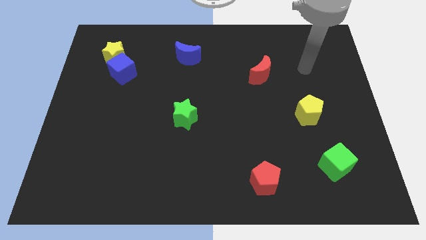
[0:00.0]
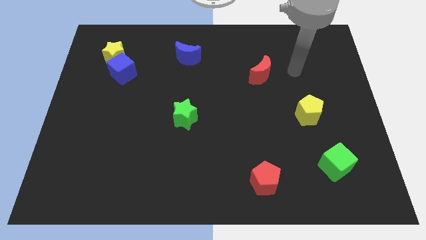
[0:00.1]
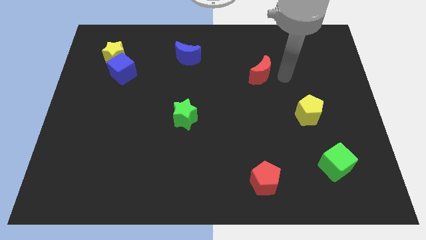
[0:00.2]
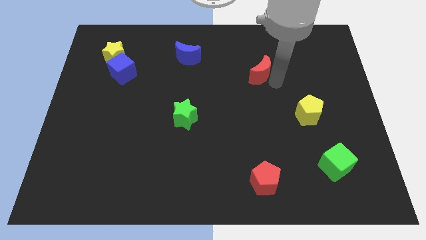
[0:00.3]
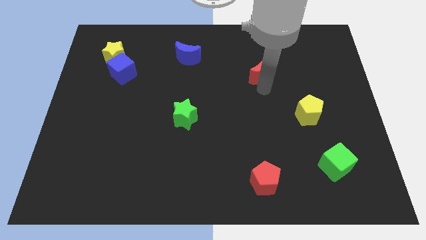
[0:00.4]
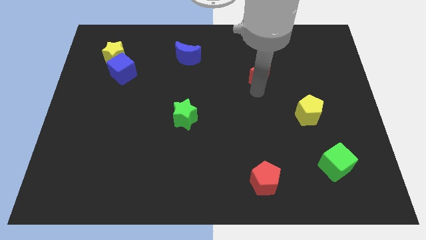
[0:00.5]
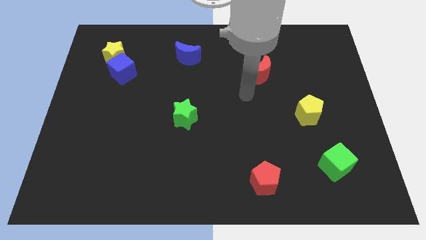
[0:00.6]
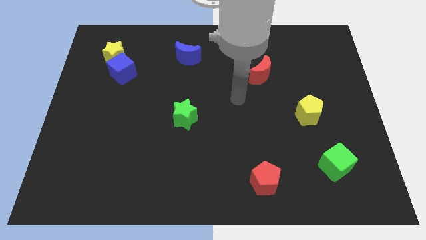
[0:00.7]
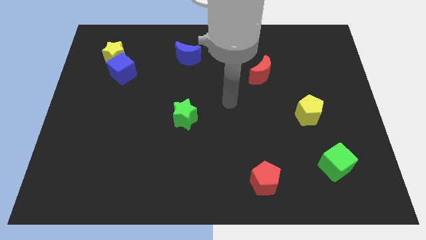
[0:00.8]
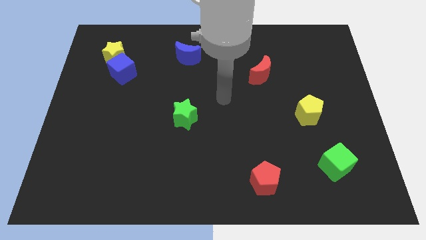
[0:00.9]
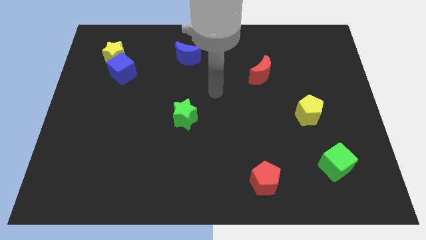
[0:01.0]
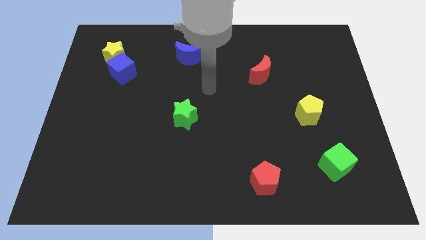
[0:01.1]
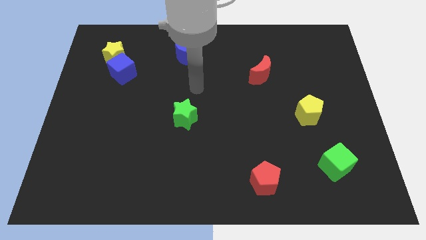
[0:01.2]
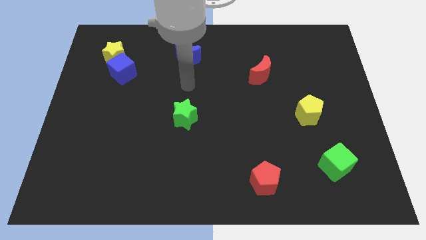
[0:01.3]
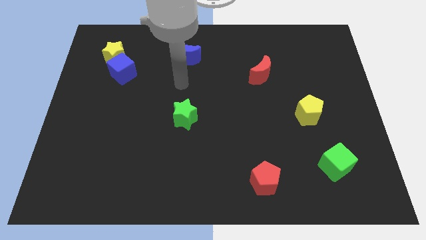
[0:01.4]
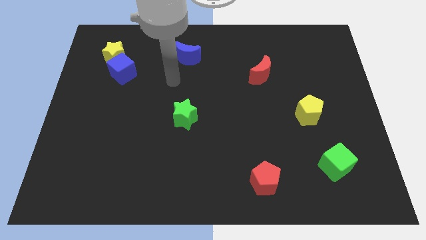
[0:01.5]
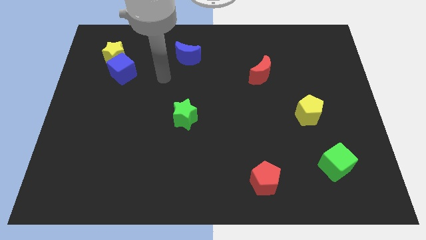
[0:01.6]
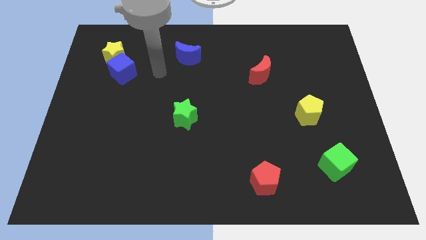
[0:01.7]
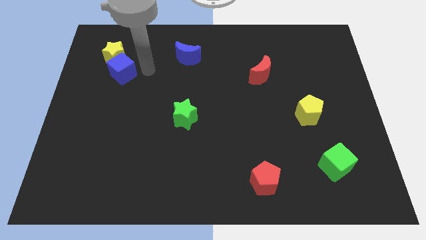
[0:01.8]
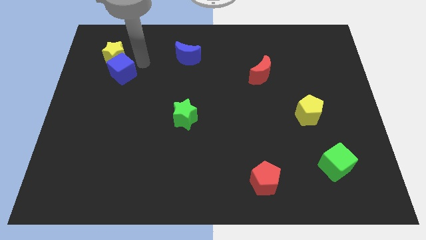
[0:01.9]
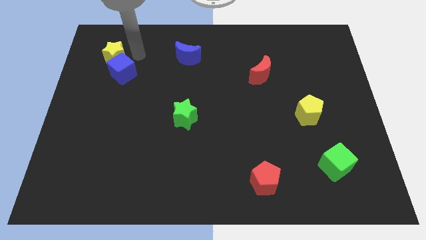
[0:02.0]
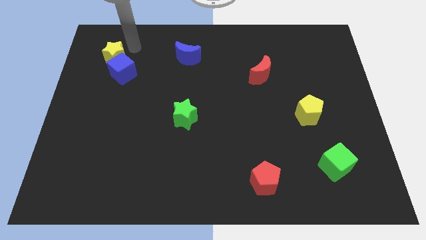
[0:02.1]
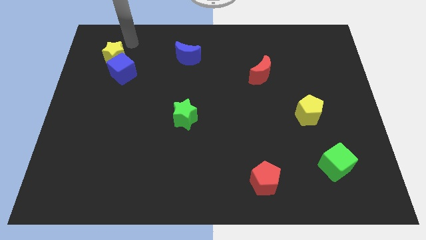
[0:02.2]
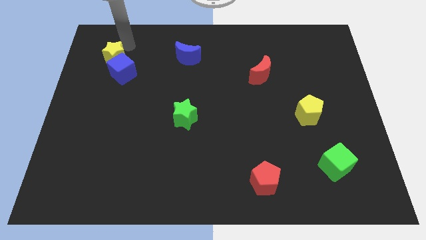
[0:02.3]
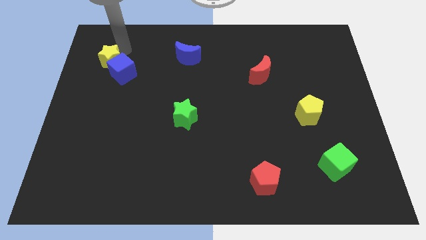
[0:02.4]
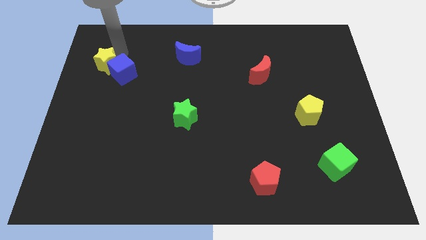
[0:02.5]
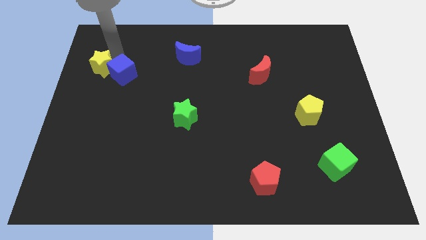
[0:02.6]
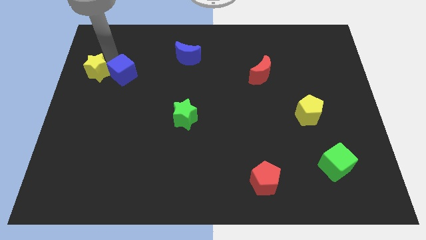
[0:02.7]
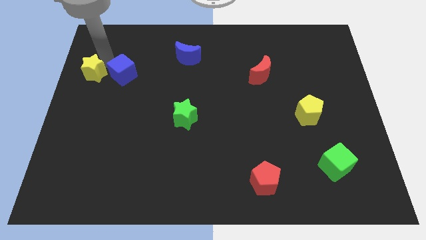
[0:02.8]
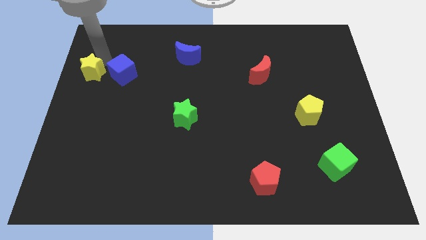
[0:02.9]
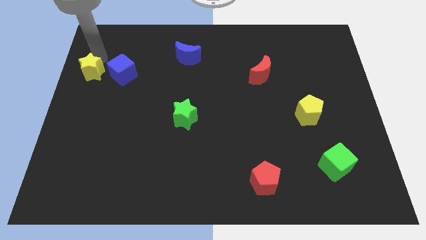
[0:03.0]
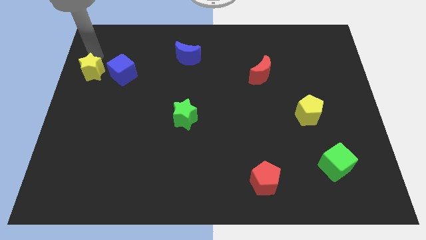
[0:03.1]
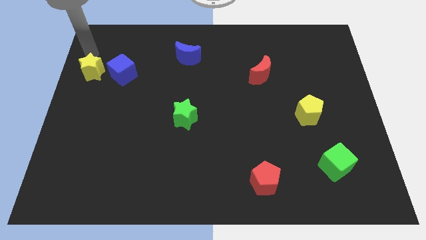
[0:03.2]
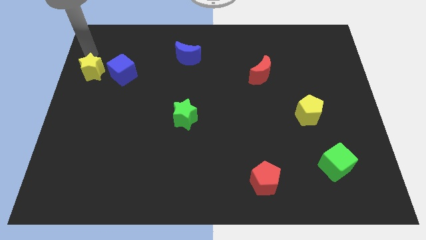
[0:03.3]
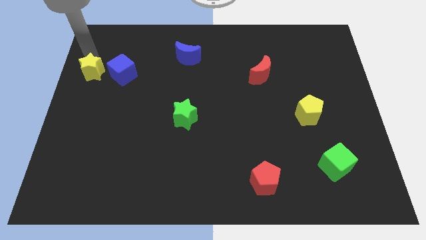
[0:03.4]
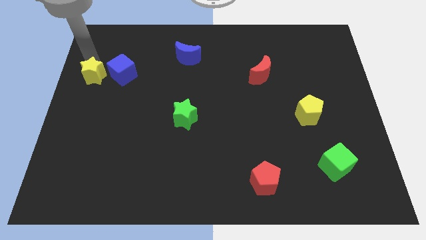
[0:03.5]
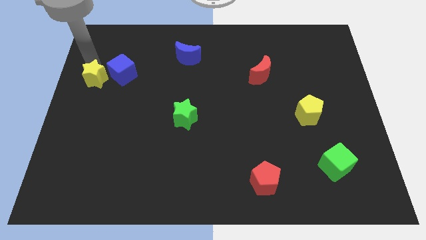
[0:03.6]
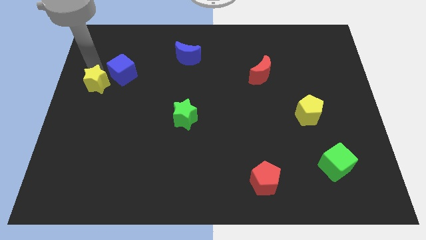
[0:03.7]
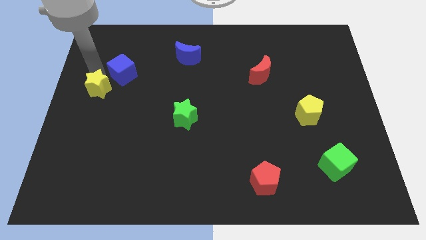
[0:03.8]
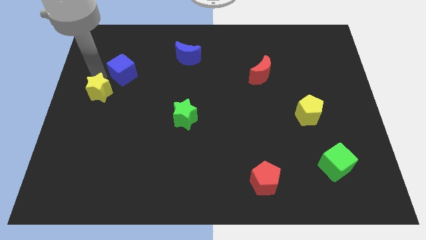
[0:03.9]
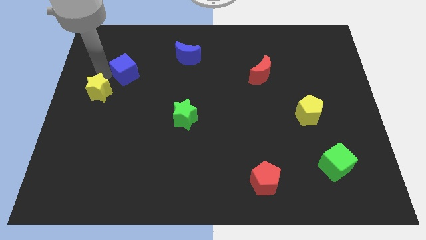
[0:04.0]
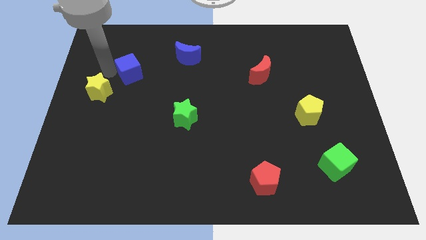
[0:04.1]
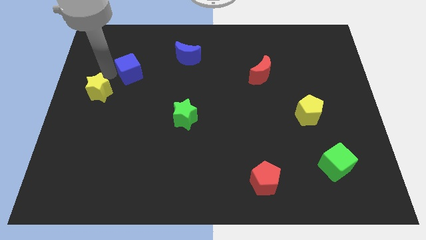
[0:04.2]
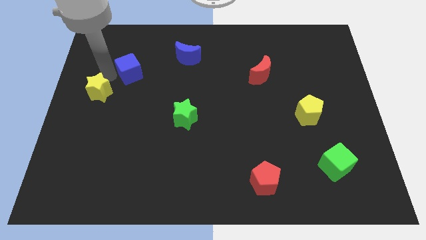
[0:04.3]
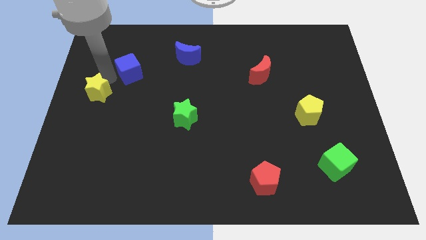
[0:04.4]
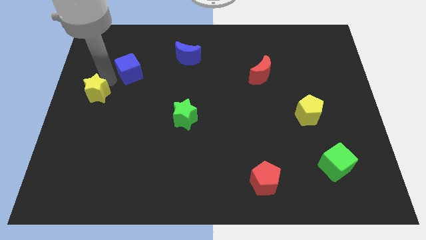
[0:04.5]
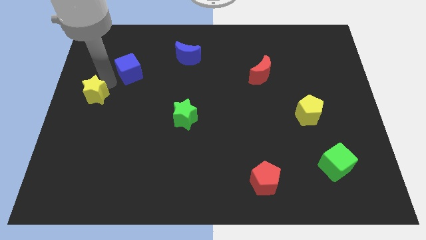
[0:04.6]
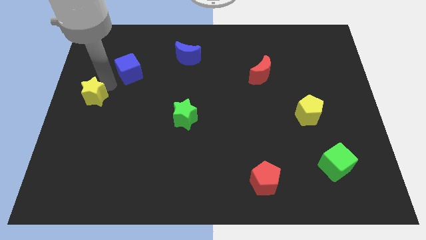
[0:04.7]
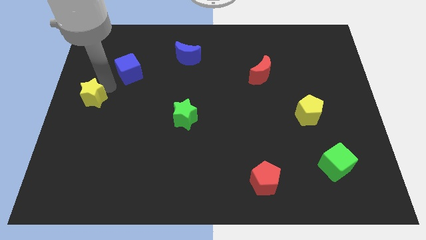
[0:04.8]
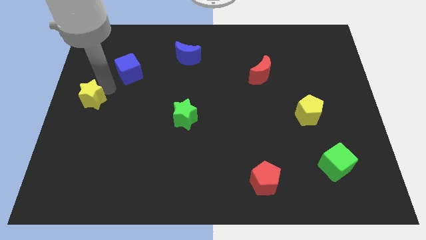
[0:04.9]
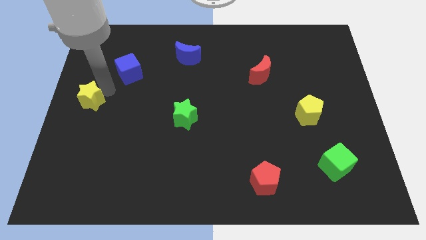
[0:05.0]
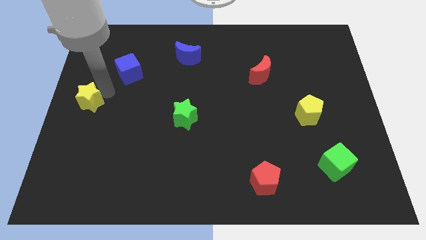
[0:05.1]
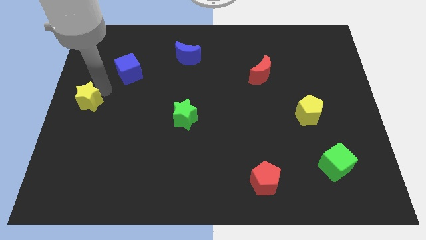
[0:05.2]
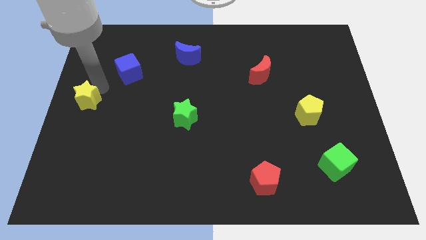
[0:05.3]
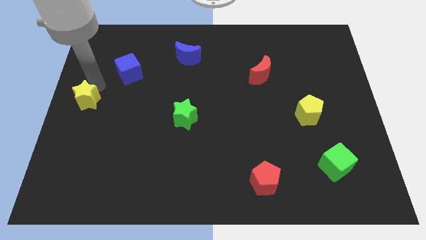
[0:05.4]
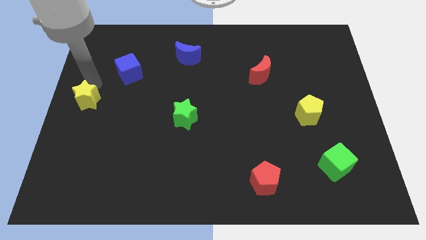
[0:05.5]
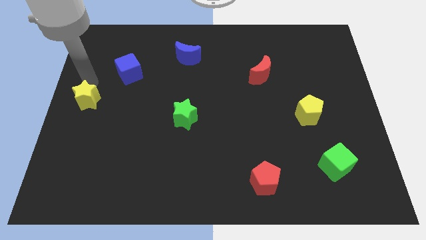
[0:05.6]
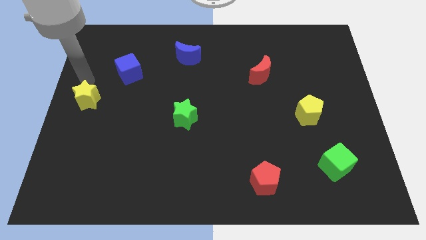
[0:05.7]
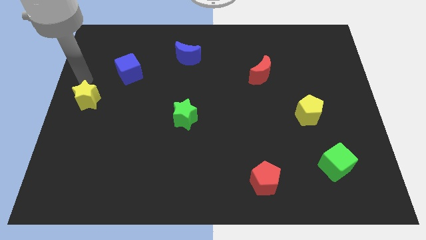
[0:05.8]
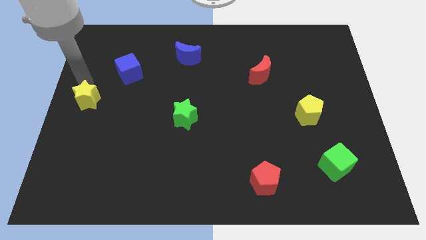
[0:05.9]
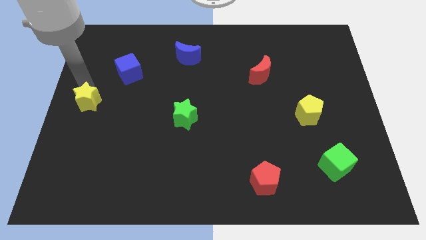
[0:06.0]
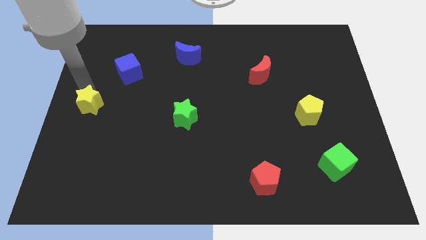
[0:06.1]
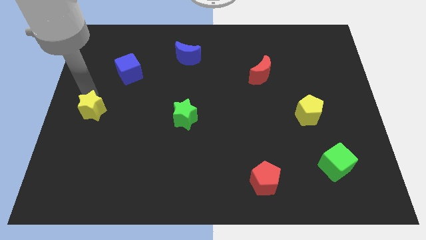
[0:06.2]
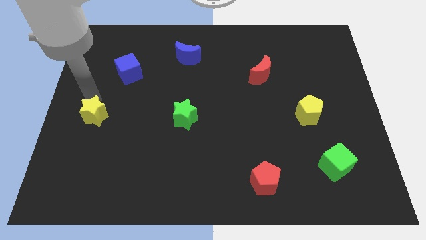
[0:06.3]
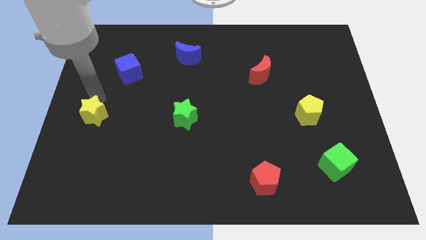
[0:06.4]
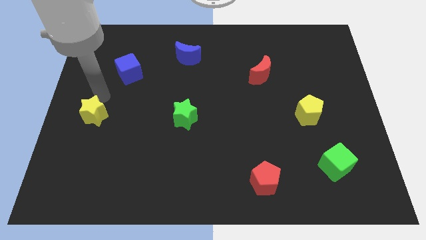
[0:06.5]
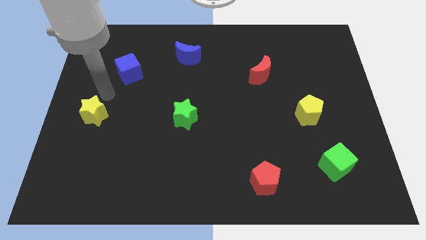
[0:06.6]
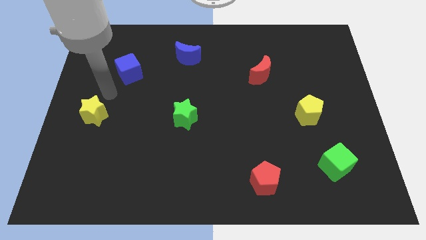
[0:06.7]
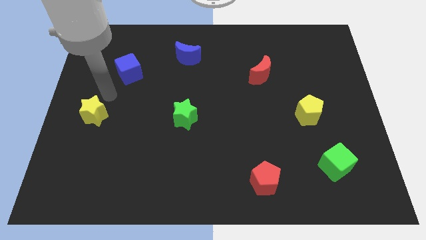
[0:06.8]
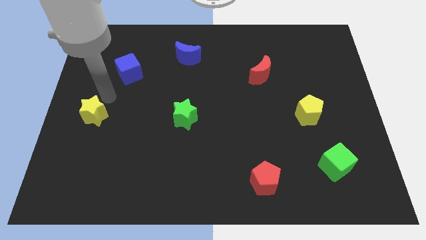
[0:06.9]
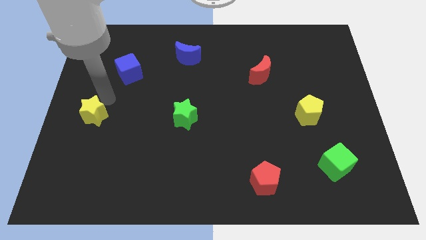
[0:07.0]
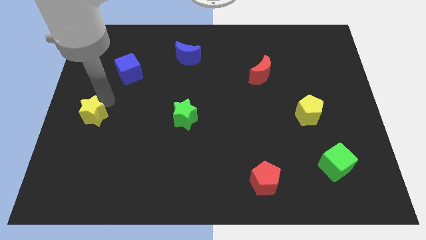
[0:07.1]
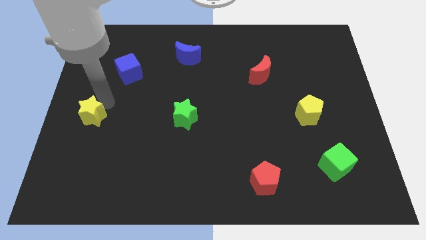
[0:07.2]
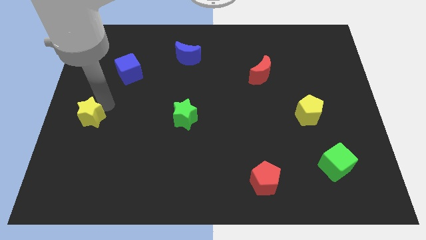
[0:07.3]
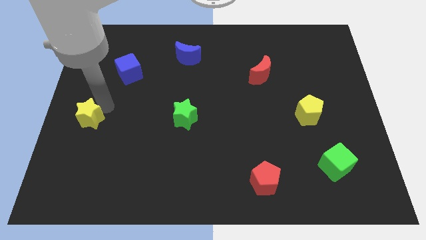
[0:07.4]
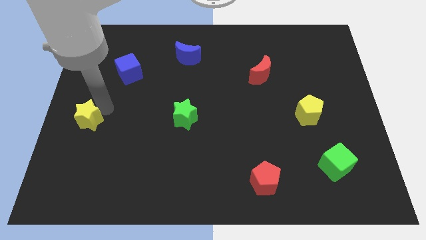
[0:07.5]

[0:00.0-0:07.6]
move the yellow star downwards

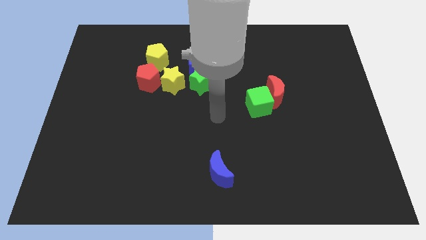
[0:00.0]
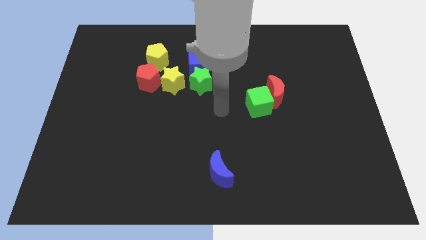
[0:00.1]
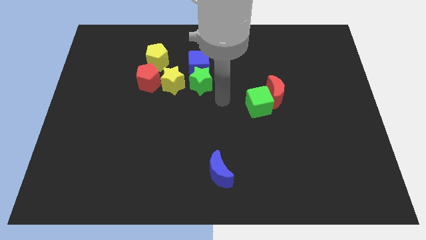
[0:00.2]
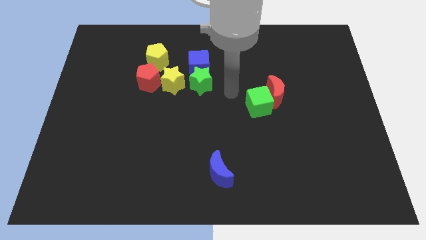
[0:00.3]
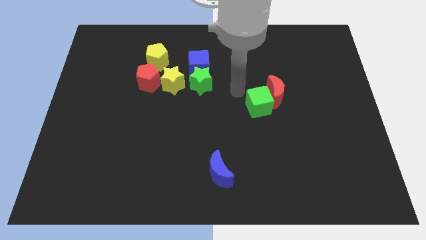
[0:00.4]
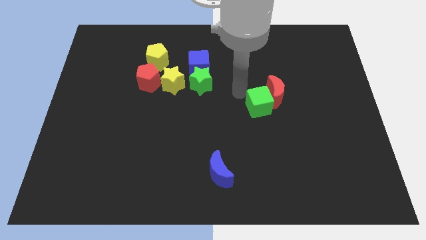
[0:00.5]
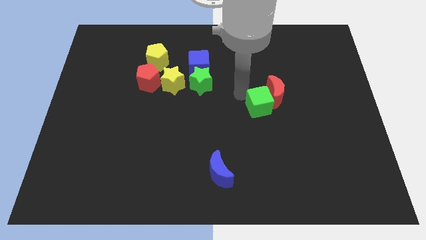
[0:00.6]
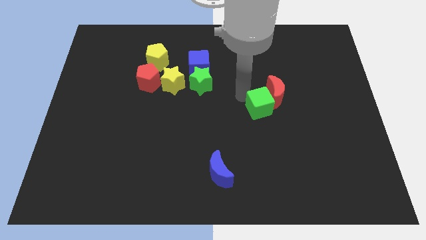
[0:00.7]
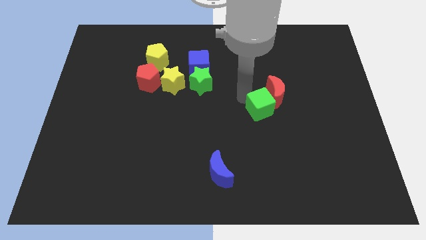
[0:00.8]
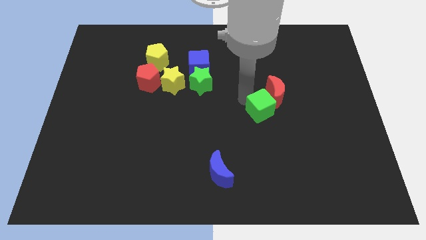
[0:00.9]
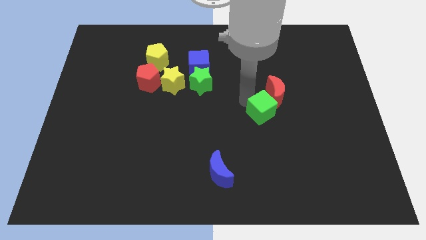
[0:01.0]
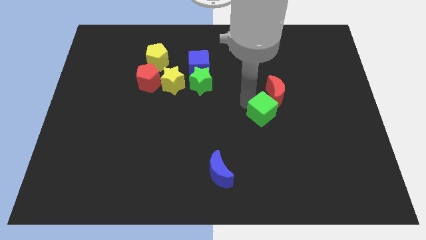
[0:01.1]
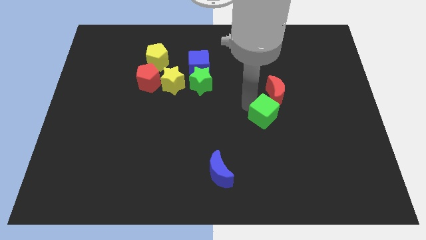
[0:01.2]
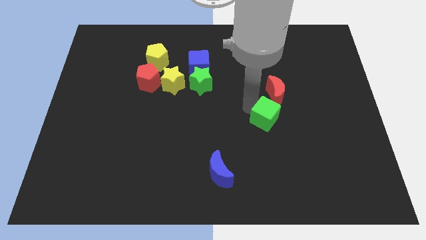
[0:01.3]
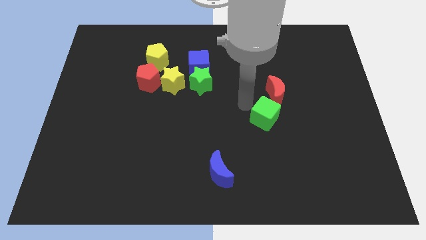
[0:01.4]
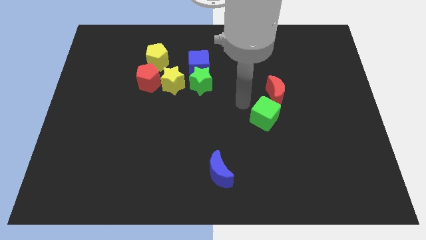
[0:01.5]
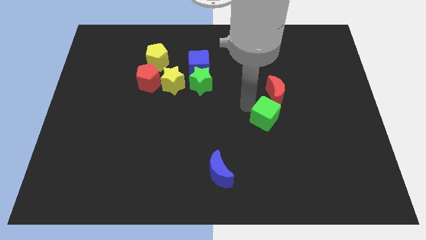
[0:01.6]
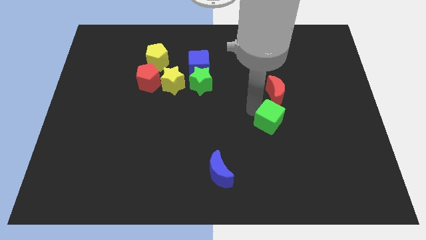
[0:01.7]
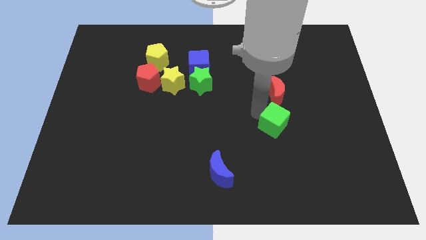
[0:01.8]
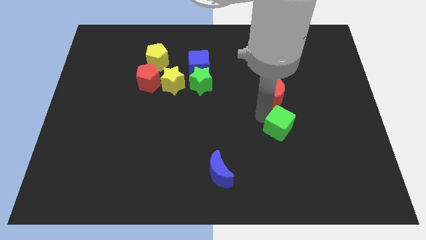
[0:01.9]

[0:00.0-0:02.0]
slightly slide the green cube down and then right
